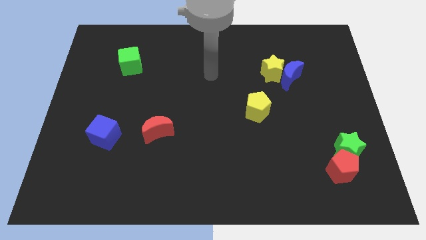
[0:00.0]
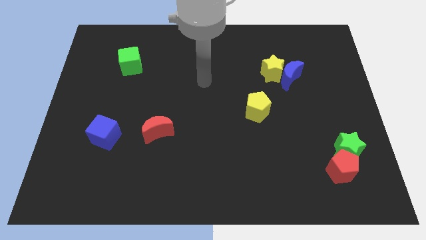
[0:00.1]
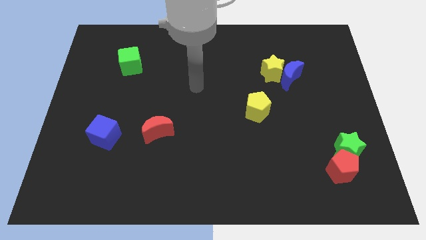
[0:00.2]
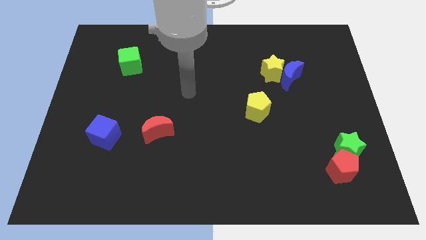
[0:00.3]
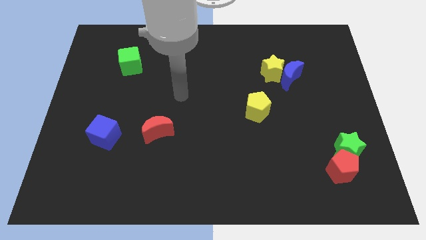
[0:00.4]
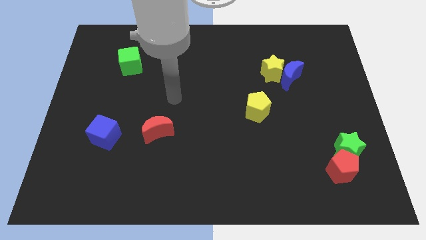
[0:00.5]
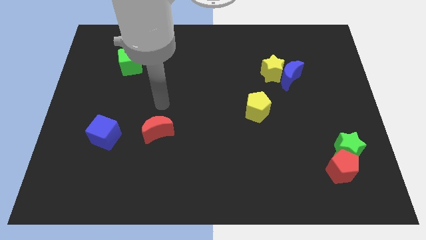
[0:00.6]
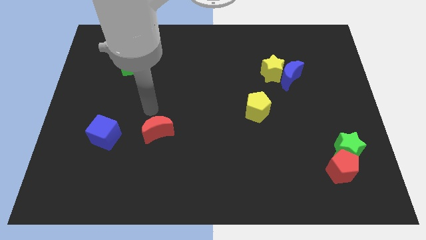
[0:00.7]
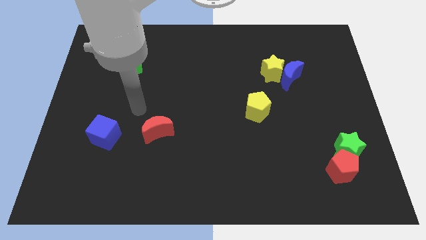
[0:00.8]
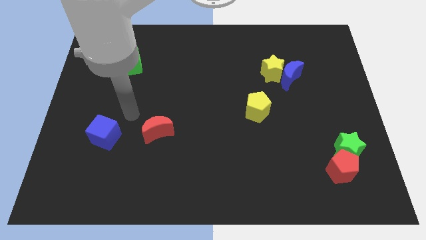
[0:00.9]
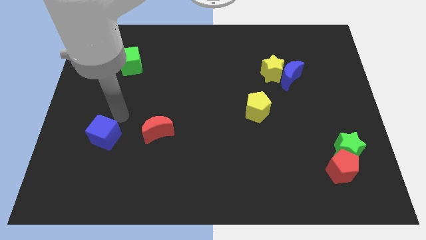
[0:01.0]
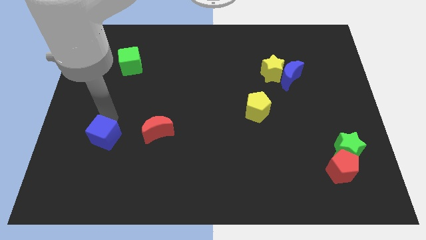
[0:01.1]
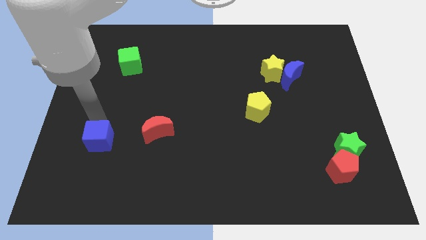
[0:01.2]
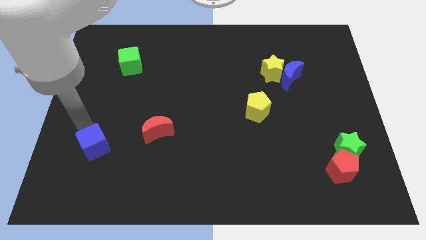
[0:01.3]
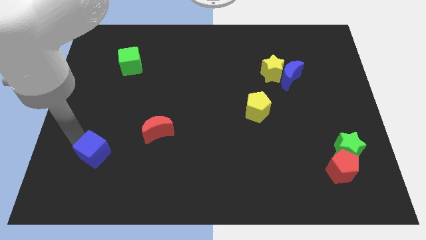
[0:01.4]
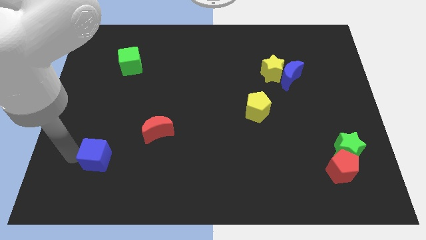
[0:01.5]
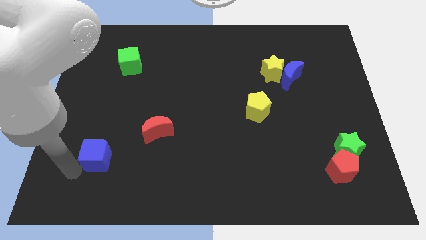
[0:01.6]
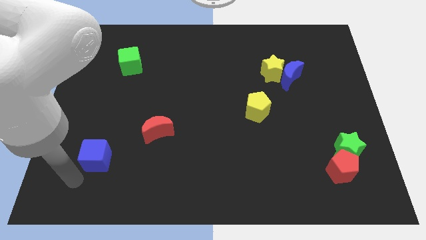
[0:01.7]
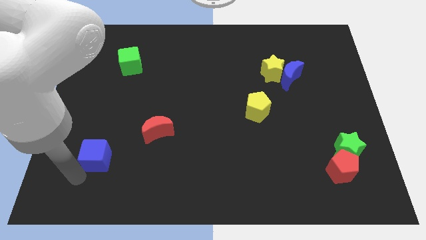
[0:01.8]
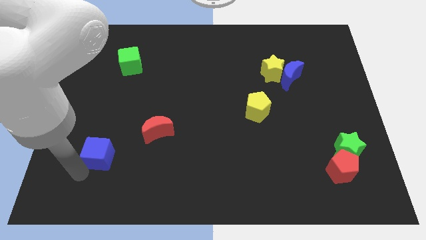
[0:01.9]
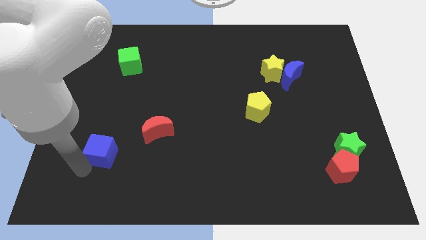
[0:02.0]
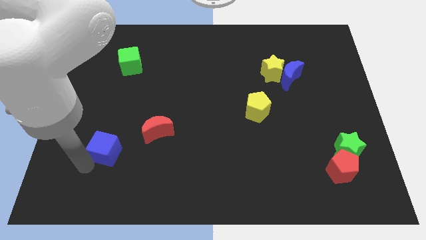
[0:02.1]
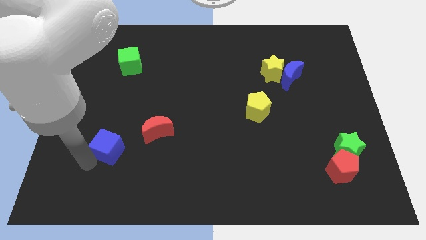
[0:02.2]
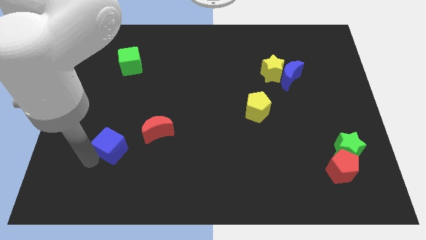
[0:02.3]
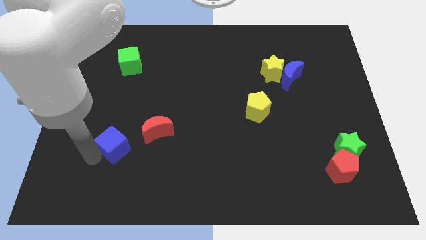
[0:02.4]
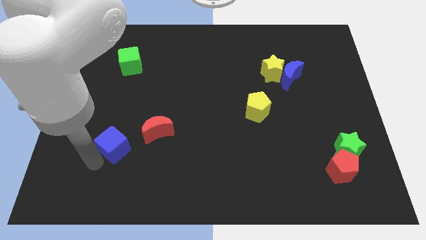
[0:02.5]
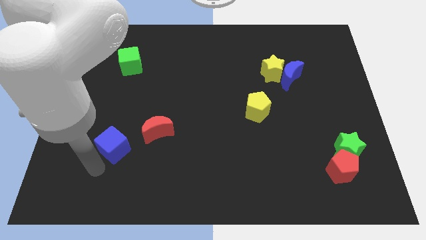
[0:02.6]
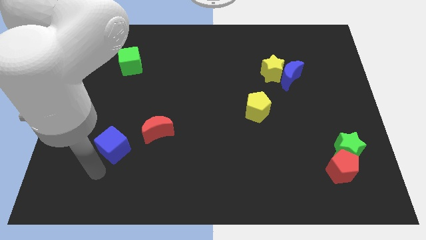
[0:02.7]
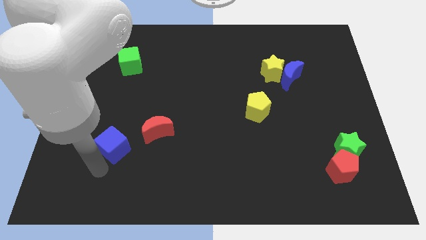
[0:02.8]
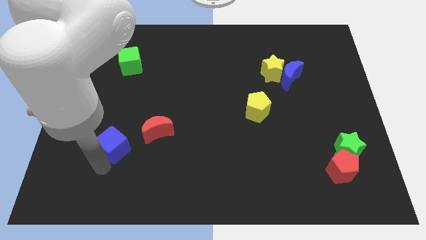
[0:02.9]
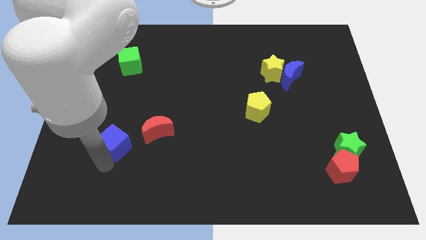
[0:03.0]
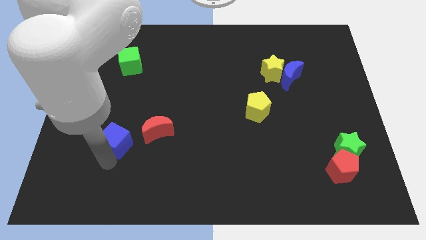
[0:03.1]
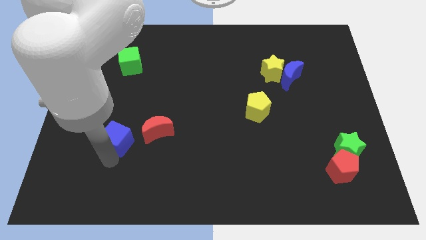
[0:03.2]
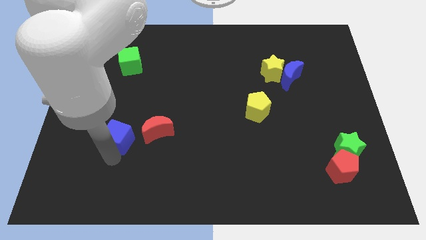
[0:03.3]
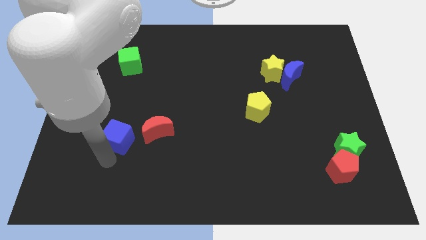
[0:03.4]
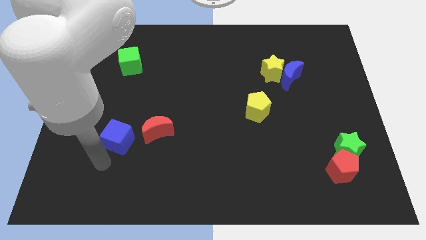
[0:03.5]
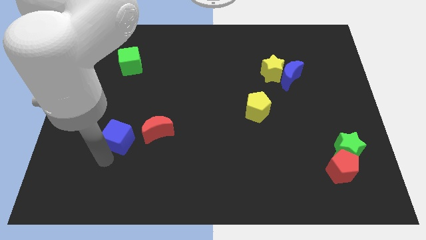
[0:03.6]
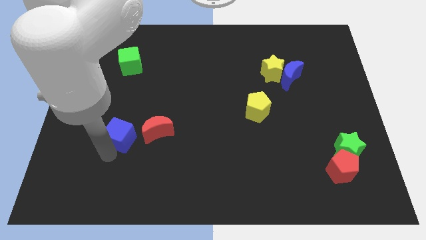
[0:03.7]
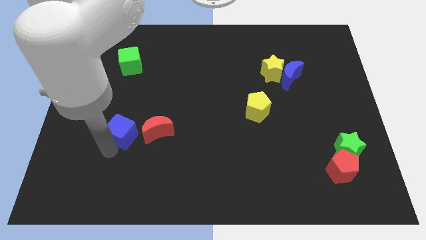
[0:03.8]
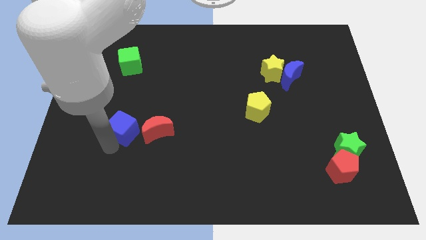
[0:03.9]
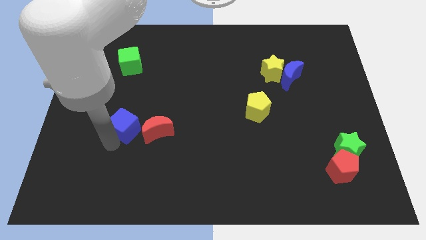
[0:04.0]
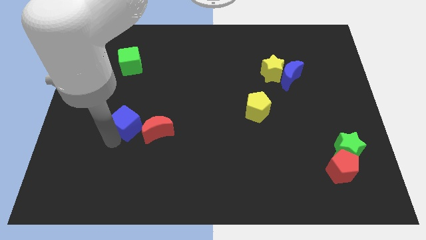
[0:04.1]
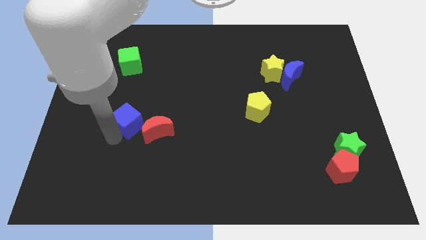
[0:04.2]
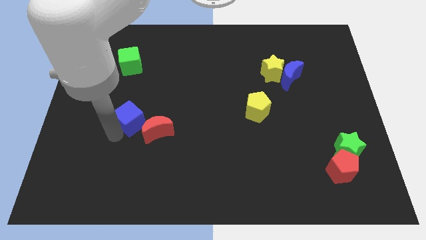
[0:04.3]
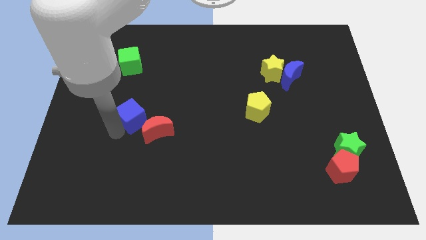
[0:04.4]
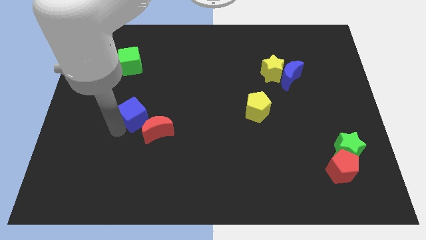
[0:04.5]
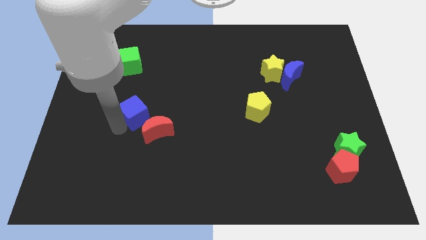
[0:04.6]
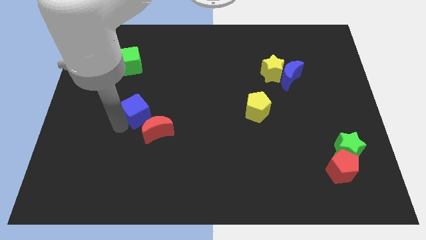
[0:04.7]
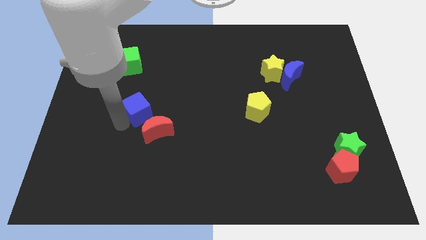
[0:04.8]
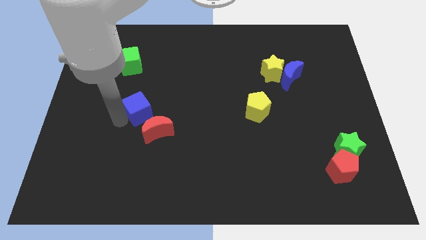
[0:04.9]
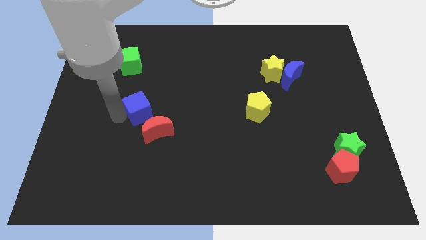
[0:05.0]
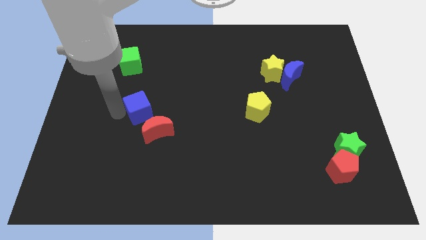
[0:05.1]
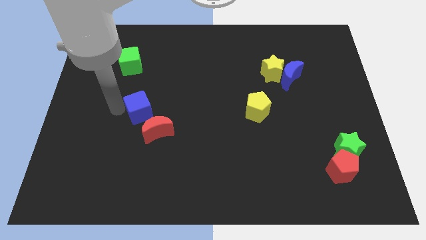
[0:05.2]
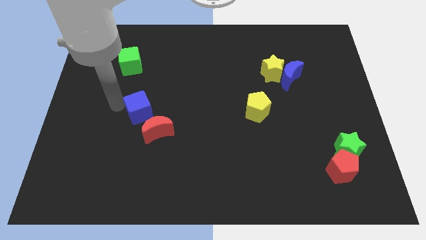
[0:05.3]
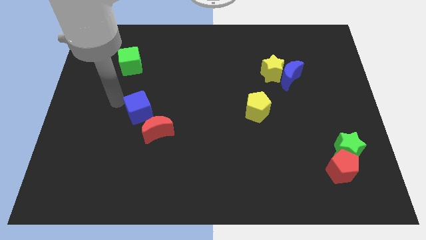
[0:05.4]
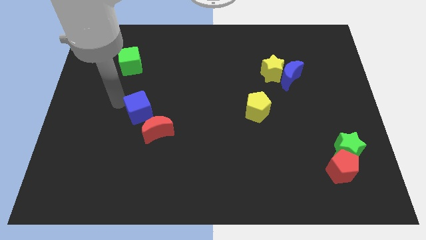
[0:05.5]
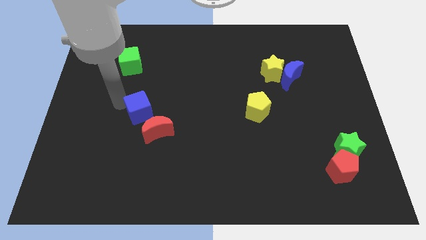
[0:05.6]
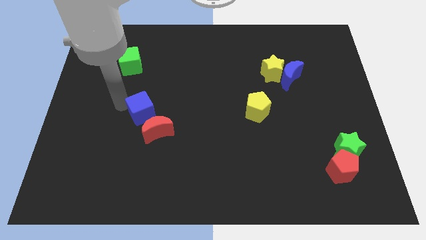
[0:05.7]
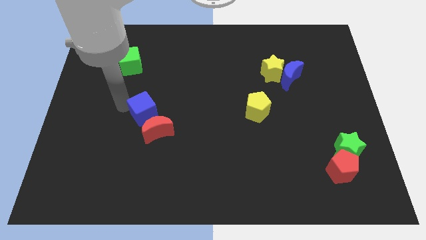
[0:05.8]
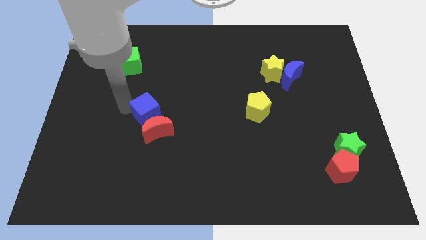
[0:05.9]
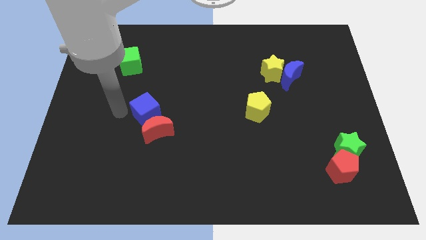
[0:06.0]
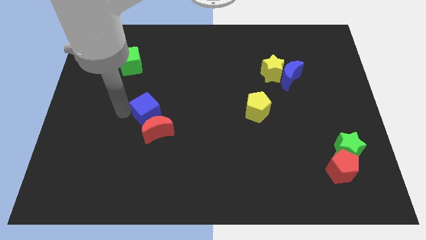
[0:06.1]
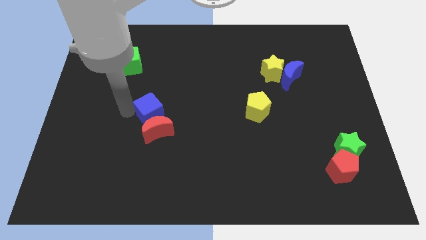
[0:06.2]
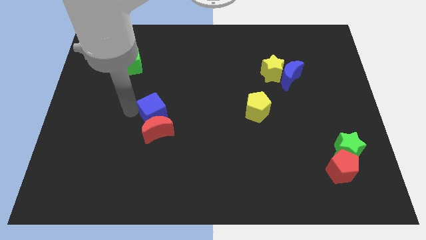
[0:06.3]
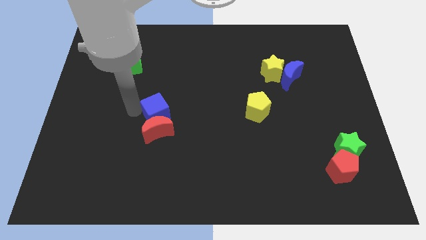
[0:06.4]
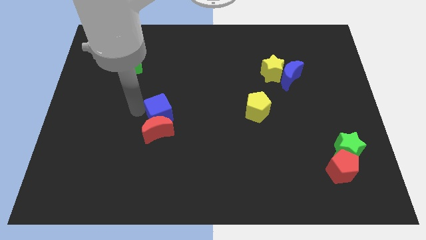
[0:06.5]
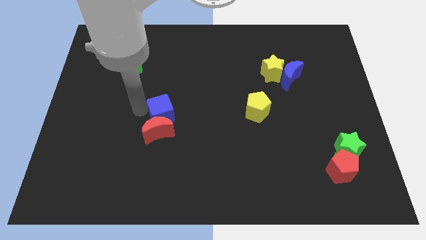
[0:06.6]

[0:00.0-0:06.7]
move the blue cube to the center

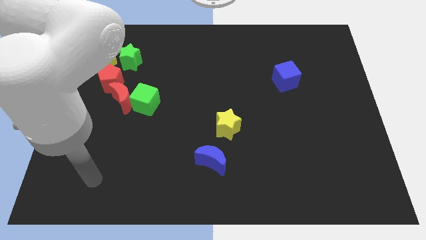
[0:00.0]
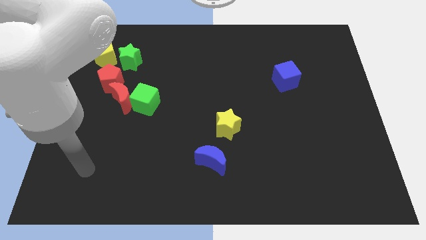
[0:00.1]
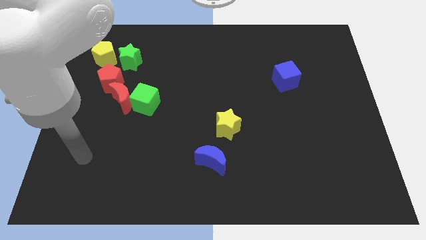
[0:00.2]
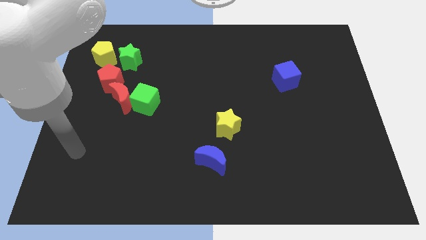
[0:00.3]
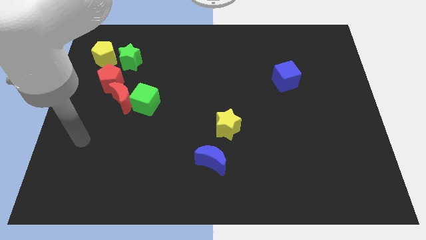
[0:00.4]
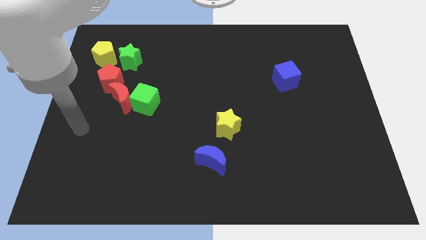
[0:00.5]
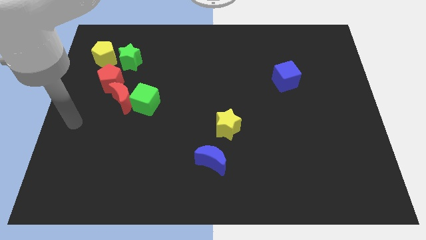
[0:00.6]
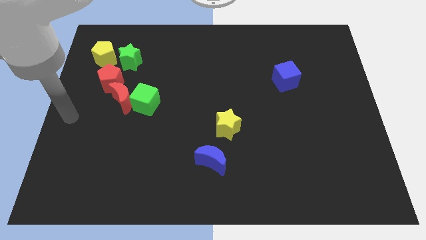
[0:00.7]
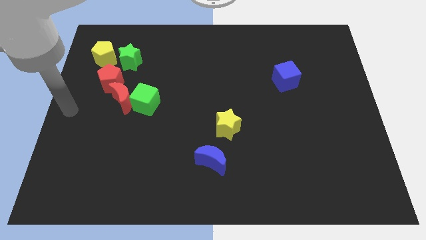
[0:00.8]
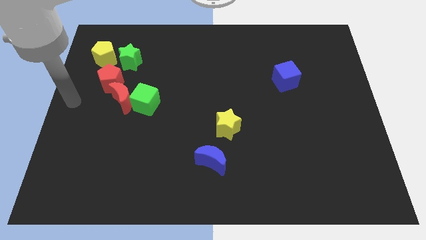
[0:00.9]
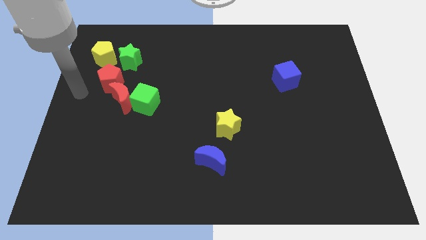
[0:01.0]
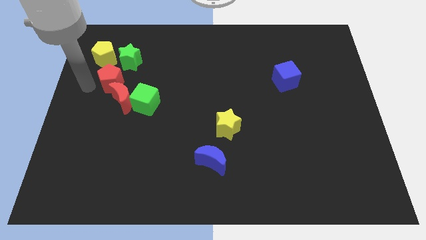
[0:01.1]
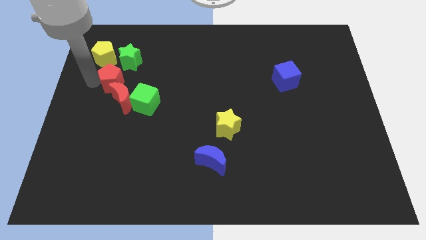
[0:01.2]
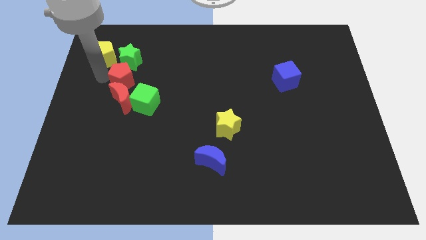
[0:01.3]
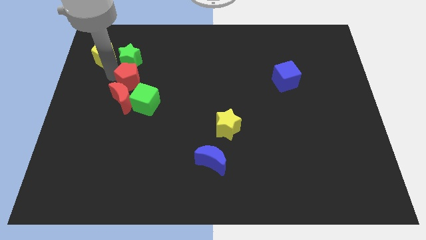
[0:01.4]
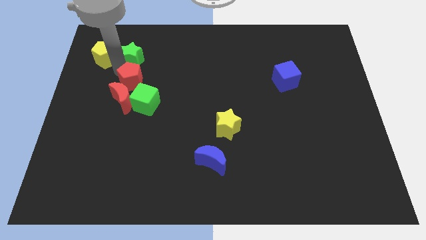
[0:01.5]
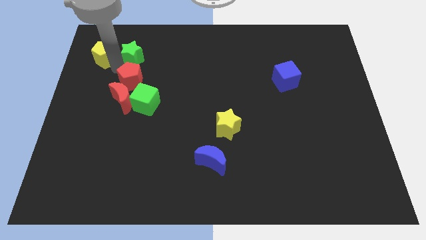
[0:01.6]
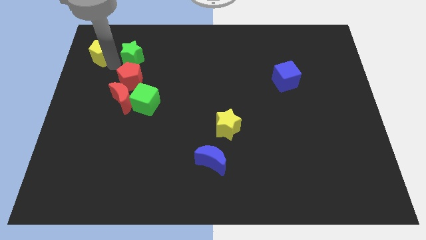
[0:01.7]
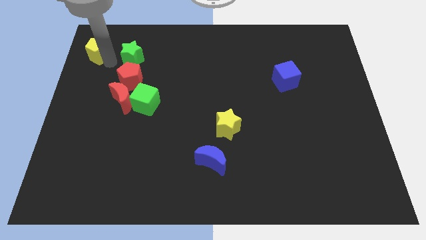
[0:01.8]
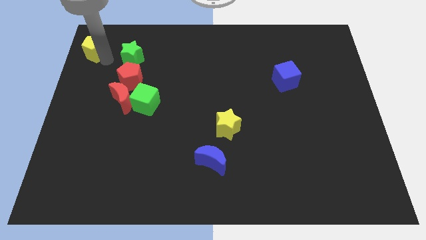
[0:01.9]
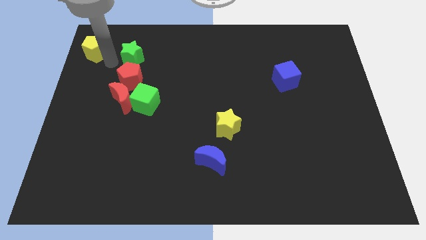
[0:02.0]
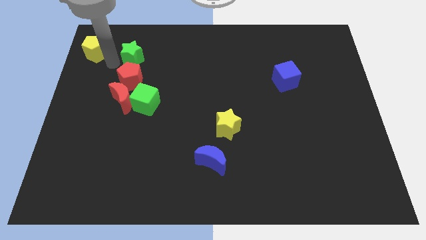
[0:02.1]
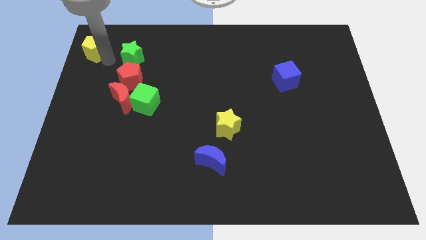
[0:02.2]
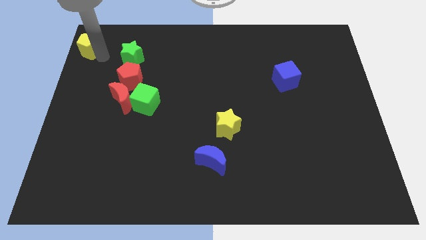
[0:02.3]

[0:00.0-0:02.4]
slide the yellow pentagon to the top left of the board
